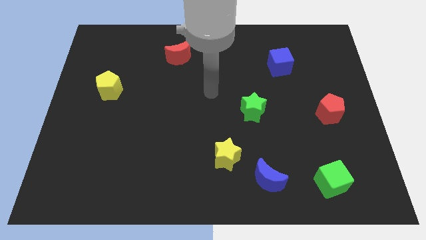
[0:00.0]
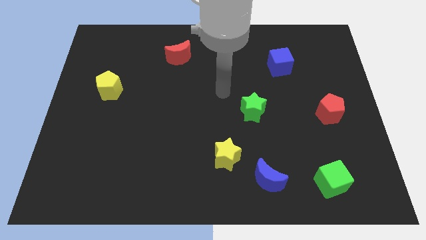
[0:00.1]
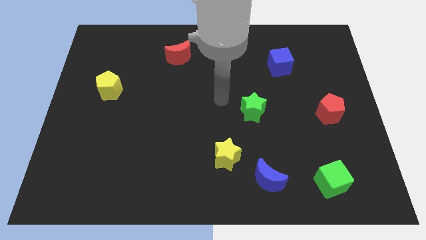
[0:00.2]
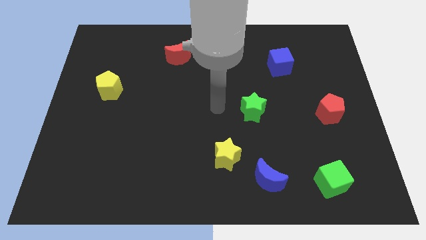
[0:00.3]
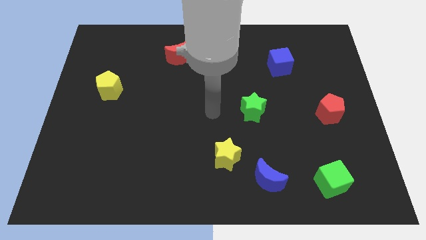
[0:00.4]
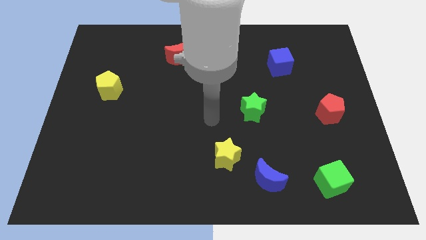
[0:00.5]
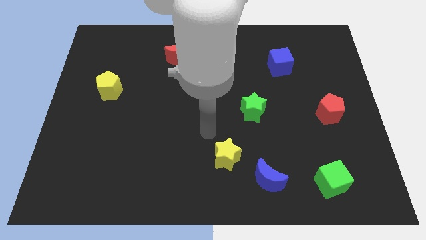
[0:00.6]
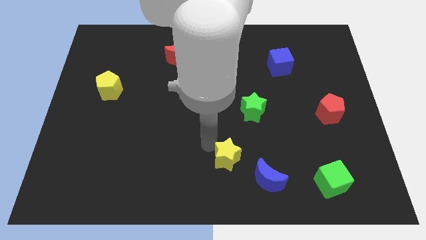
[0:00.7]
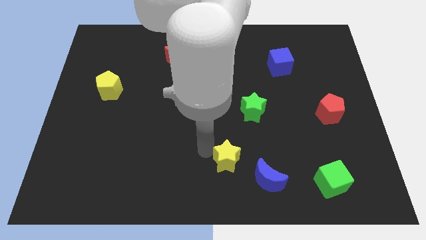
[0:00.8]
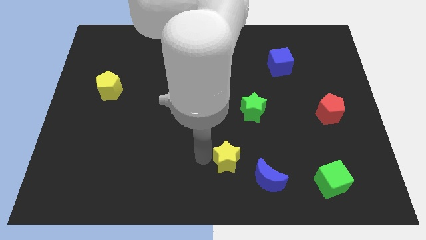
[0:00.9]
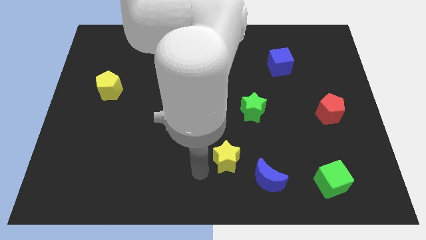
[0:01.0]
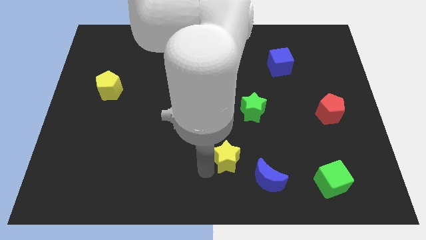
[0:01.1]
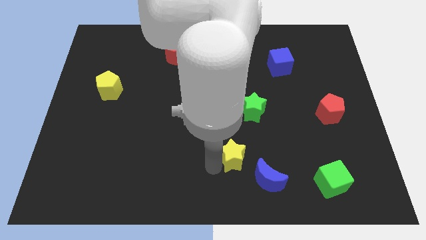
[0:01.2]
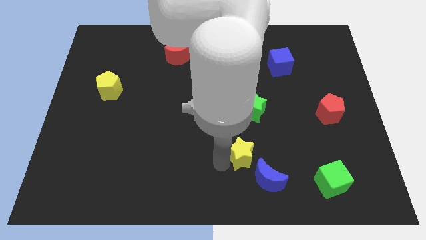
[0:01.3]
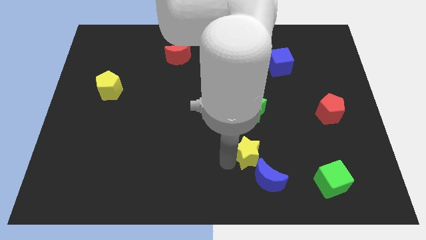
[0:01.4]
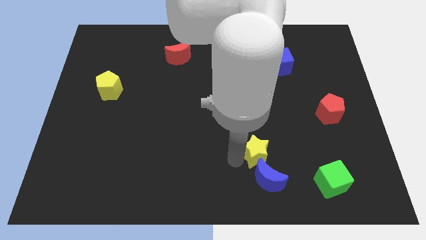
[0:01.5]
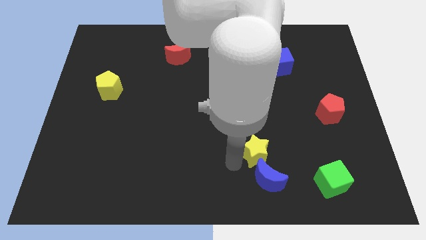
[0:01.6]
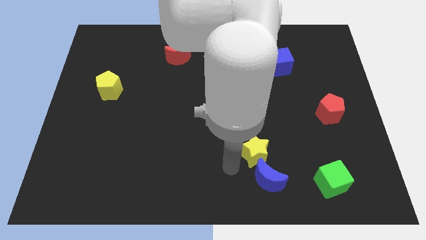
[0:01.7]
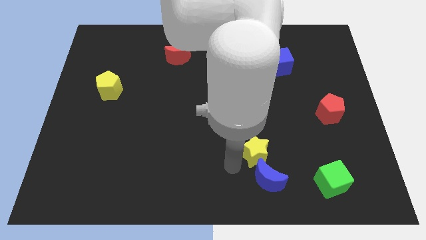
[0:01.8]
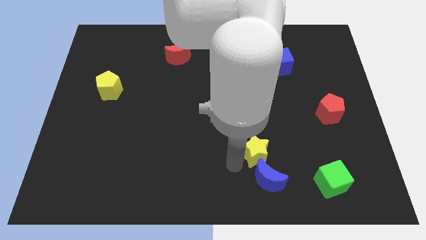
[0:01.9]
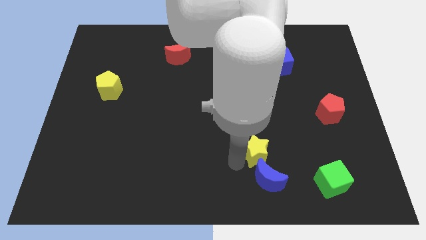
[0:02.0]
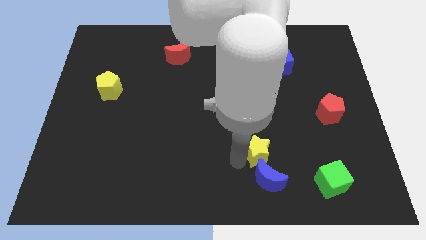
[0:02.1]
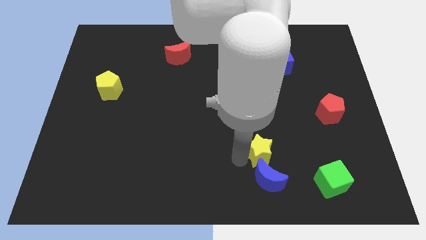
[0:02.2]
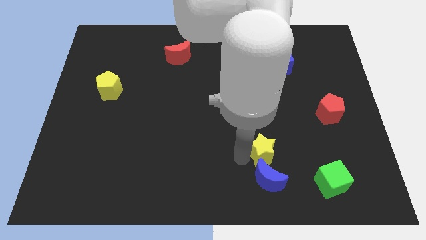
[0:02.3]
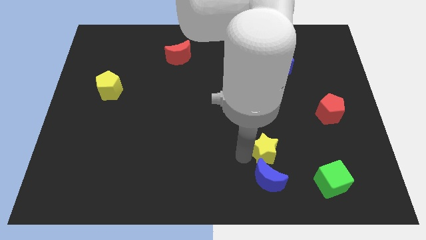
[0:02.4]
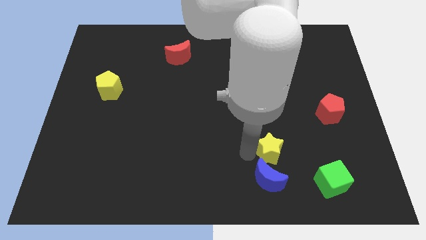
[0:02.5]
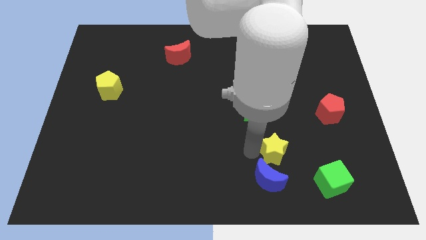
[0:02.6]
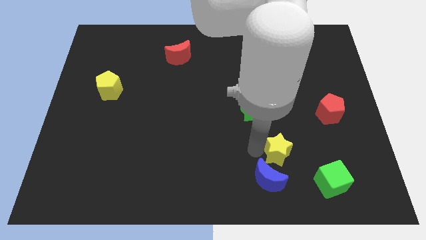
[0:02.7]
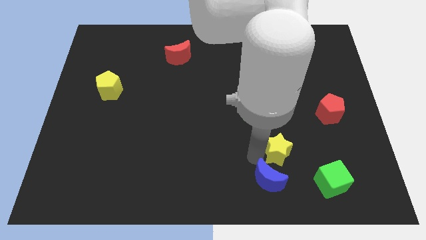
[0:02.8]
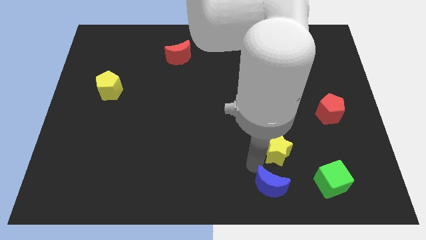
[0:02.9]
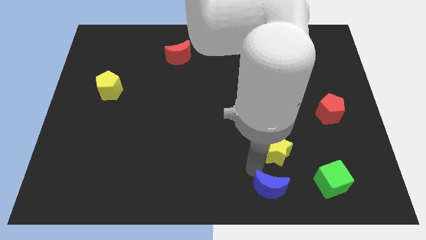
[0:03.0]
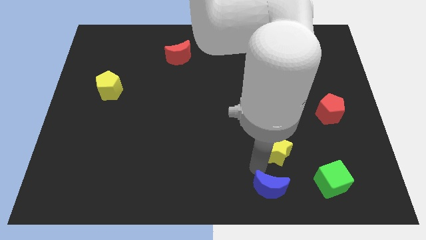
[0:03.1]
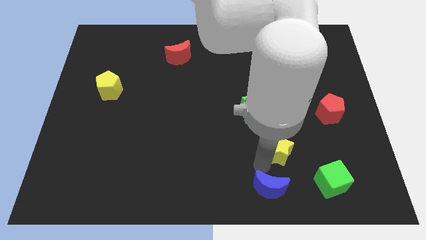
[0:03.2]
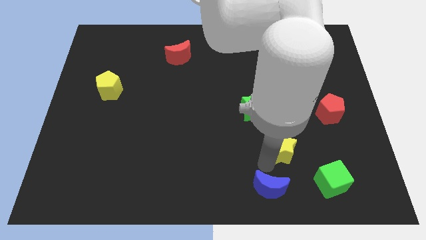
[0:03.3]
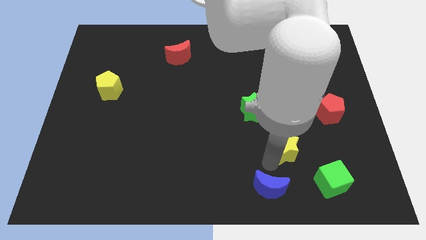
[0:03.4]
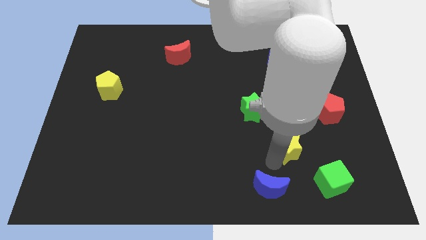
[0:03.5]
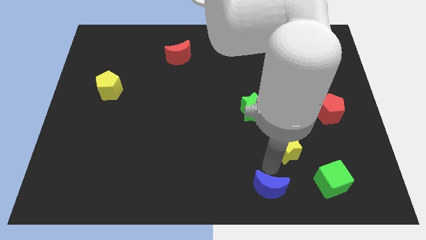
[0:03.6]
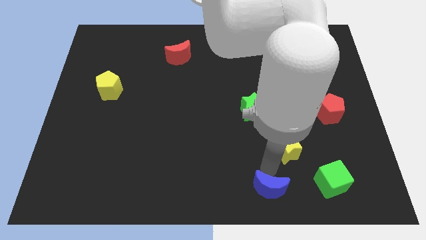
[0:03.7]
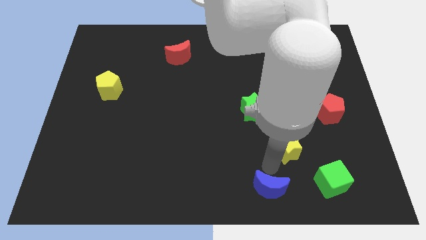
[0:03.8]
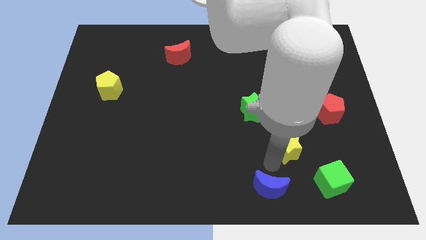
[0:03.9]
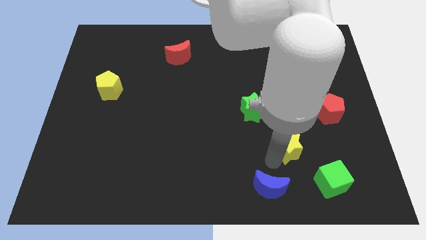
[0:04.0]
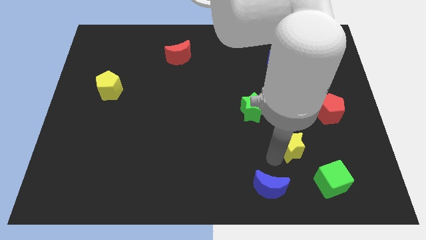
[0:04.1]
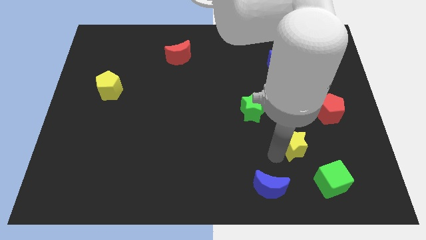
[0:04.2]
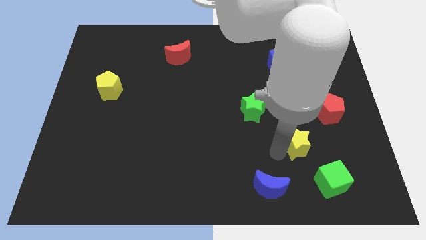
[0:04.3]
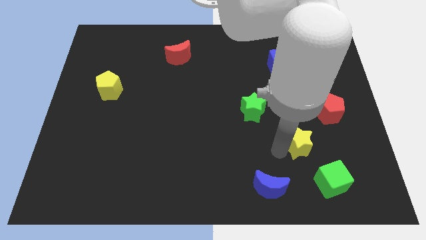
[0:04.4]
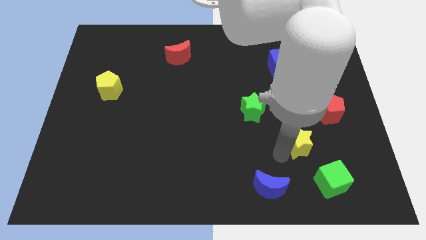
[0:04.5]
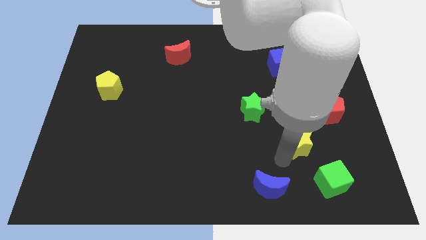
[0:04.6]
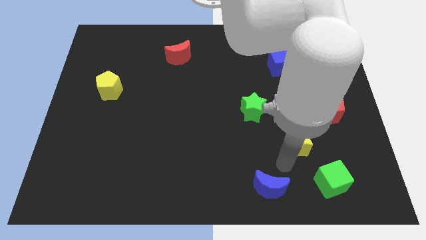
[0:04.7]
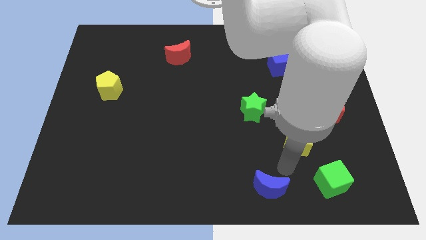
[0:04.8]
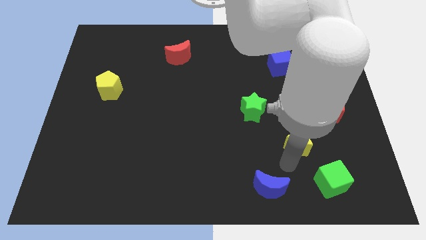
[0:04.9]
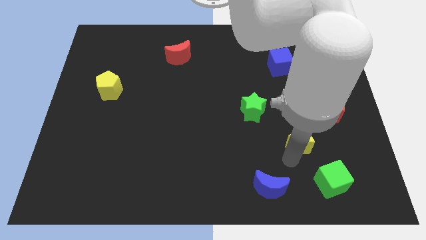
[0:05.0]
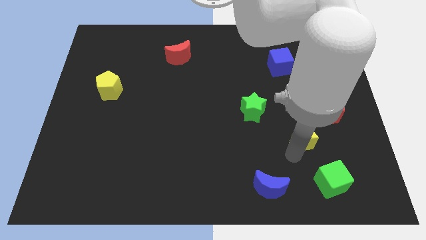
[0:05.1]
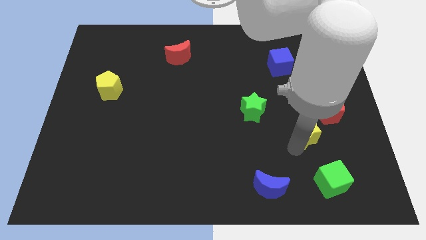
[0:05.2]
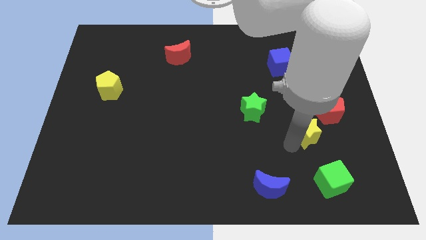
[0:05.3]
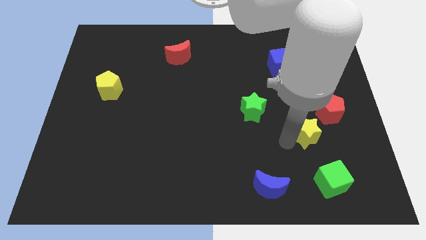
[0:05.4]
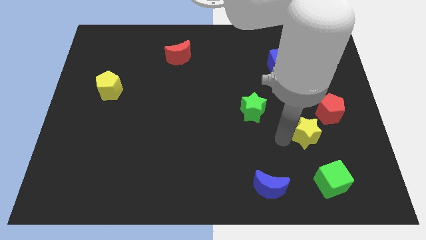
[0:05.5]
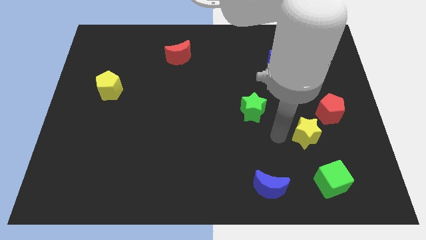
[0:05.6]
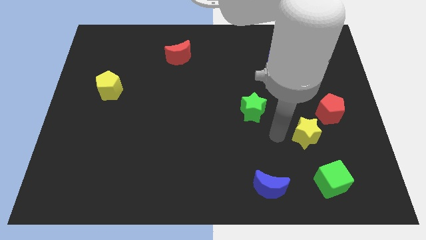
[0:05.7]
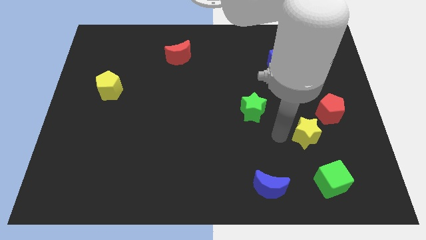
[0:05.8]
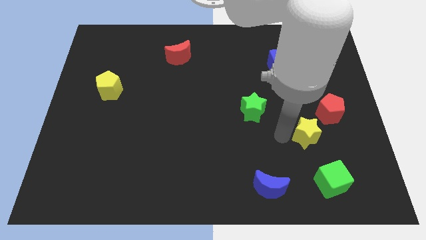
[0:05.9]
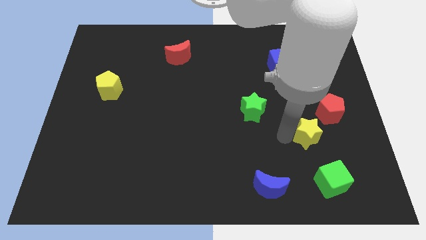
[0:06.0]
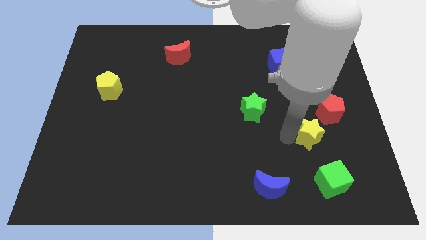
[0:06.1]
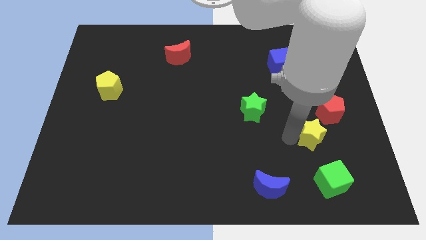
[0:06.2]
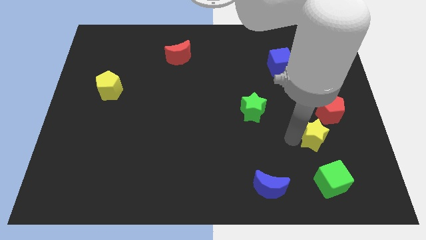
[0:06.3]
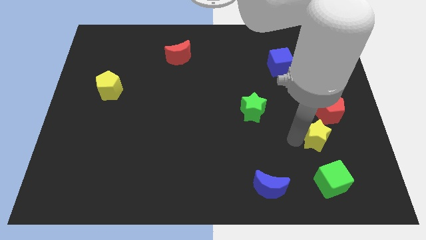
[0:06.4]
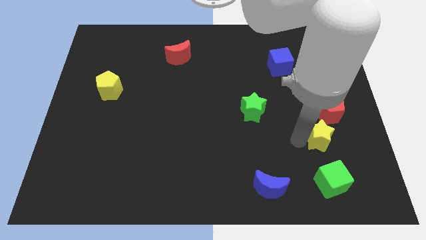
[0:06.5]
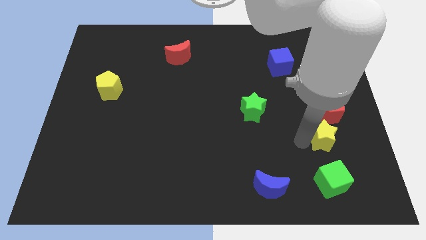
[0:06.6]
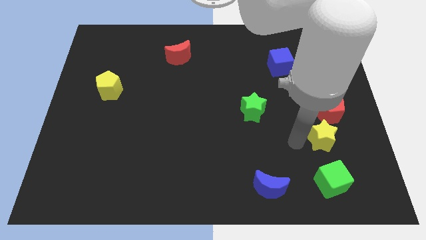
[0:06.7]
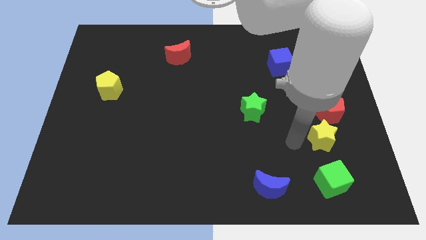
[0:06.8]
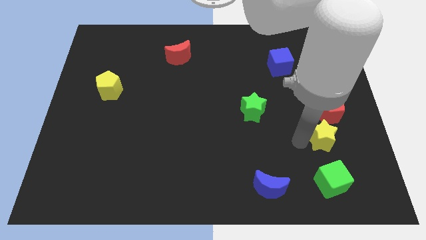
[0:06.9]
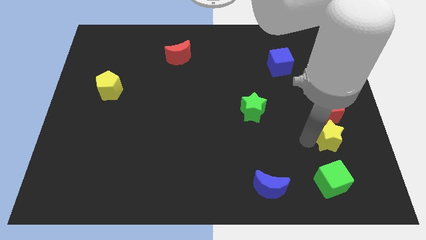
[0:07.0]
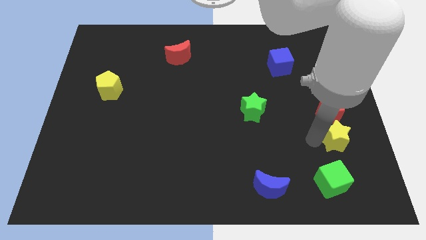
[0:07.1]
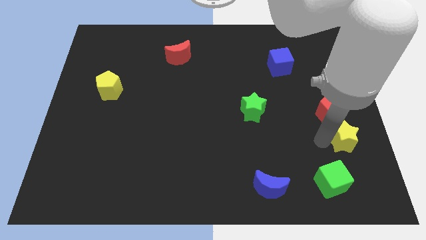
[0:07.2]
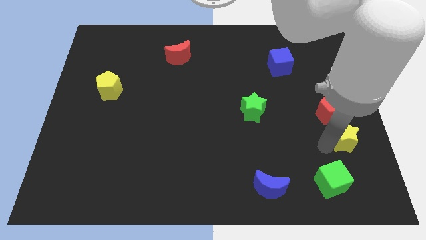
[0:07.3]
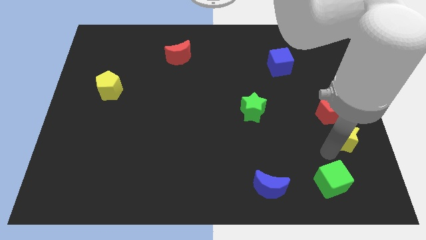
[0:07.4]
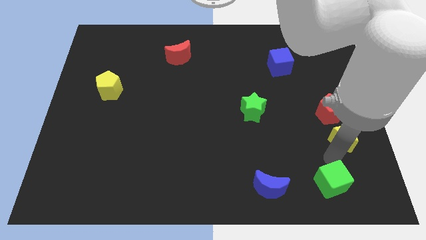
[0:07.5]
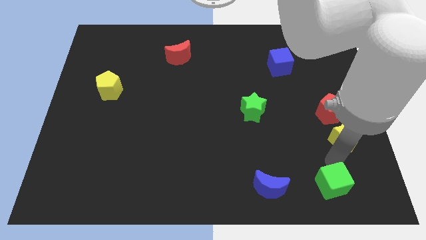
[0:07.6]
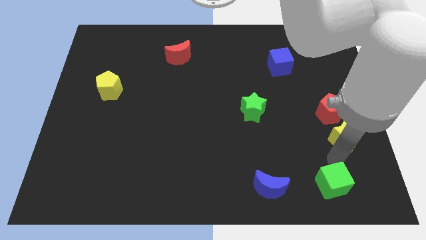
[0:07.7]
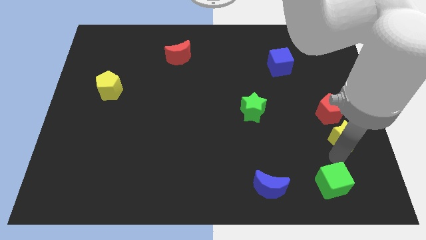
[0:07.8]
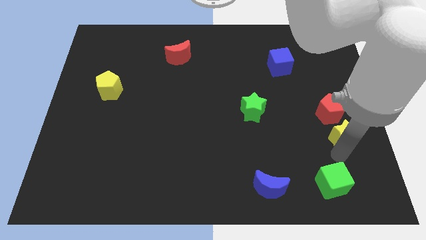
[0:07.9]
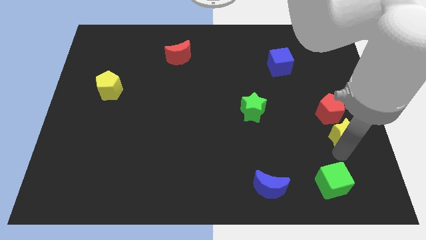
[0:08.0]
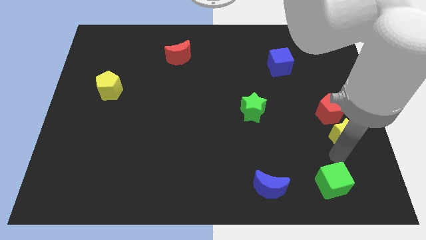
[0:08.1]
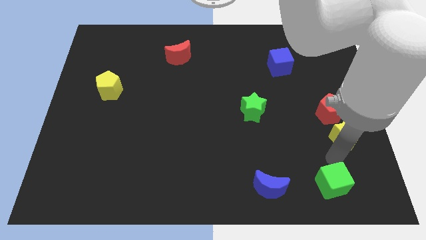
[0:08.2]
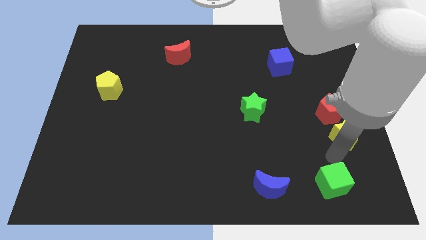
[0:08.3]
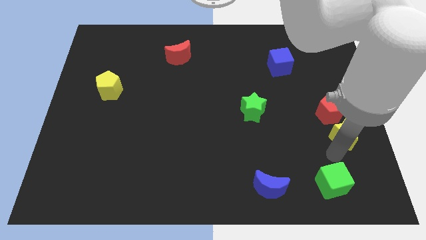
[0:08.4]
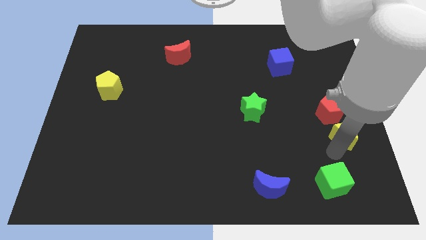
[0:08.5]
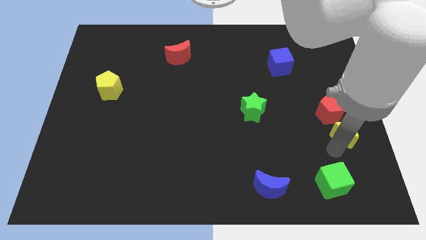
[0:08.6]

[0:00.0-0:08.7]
slide the yellow star to the right side
